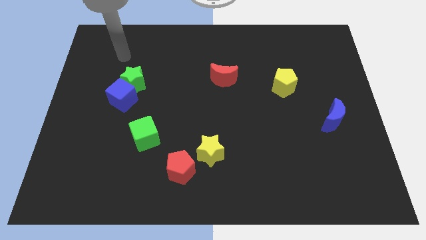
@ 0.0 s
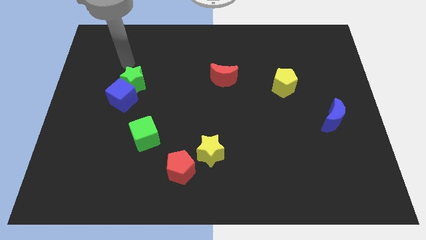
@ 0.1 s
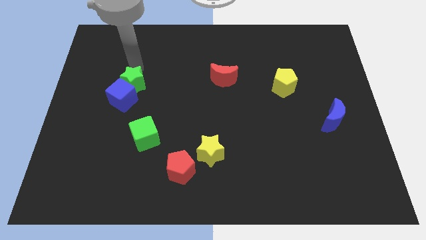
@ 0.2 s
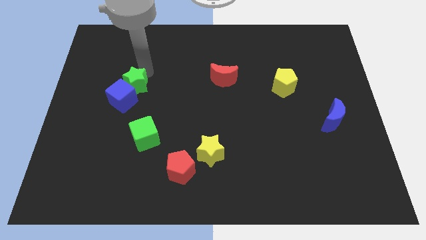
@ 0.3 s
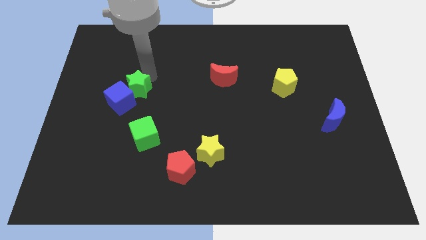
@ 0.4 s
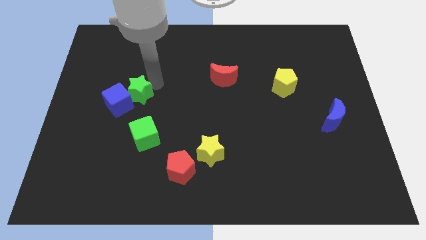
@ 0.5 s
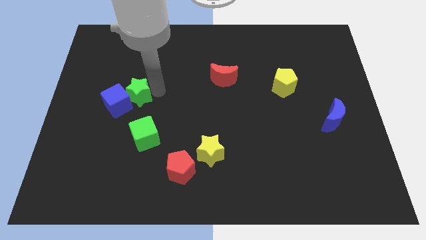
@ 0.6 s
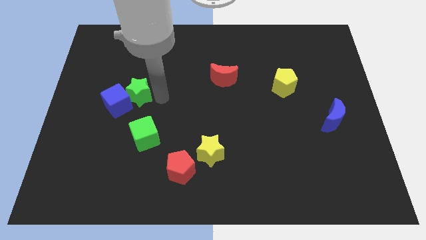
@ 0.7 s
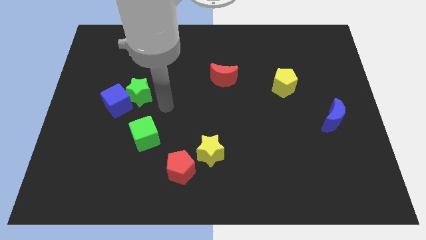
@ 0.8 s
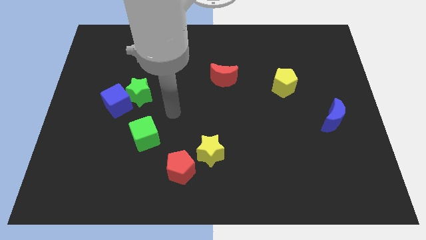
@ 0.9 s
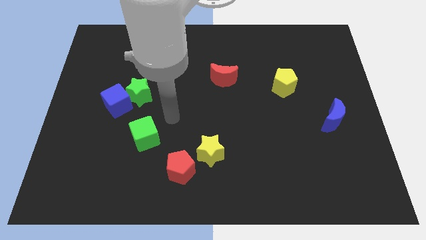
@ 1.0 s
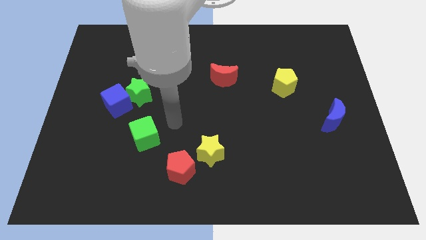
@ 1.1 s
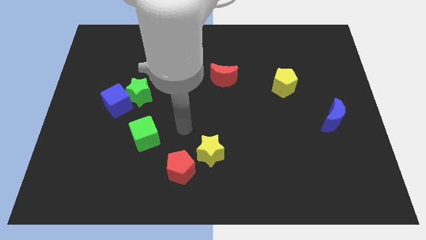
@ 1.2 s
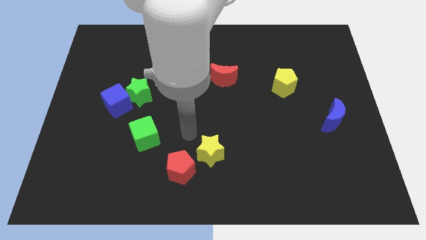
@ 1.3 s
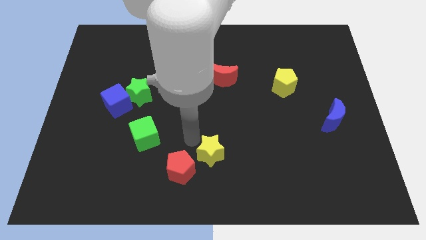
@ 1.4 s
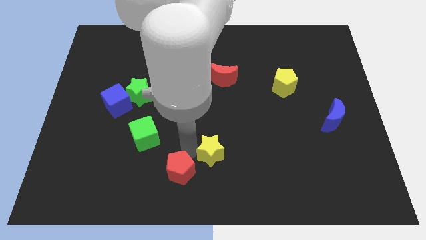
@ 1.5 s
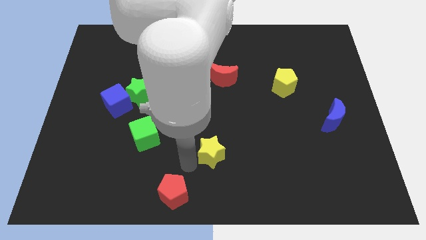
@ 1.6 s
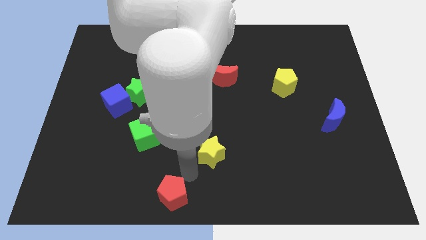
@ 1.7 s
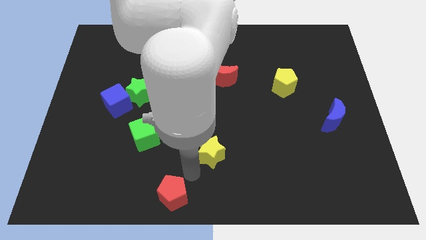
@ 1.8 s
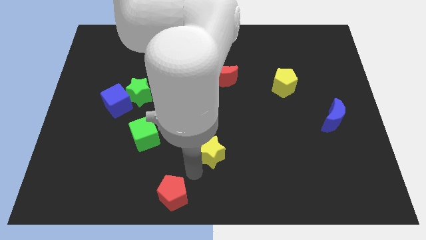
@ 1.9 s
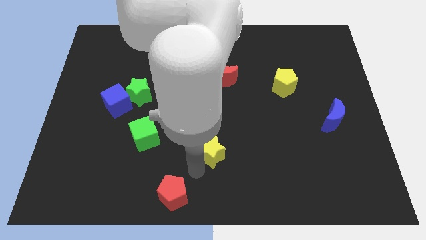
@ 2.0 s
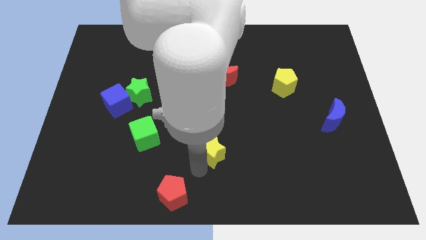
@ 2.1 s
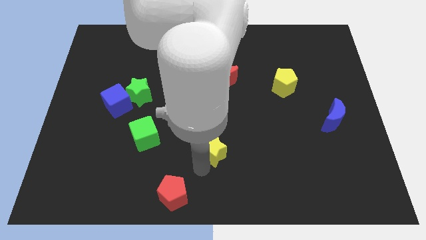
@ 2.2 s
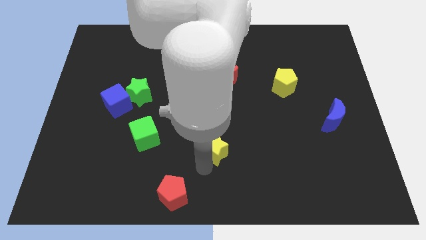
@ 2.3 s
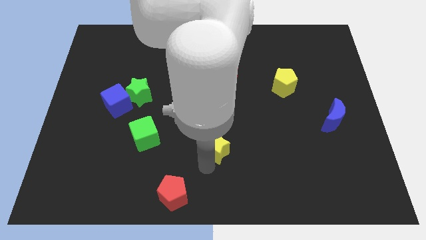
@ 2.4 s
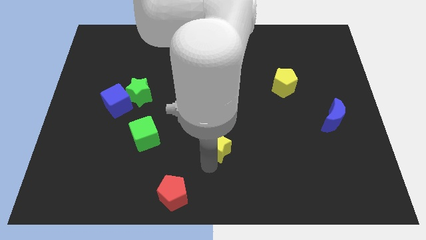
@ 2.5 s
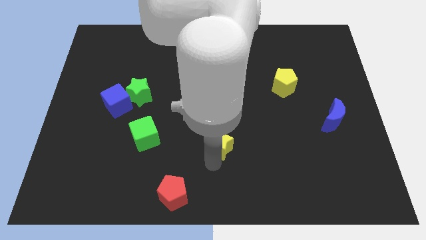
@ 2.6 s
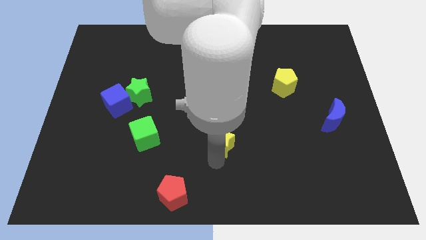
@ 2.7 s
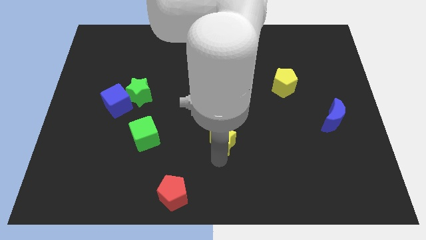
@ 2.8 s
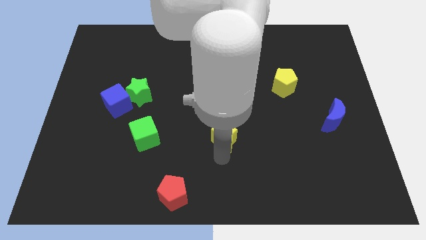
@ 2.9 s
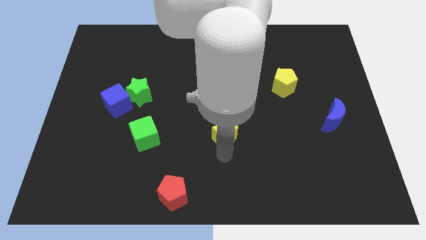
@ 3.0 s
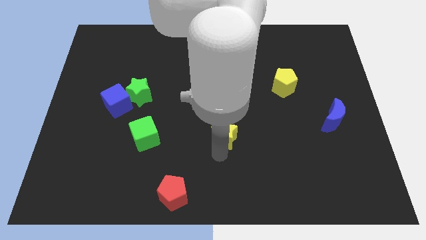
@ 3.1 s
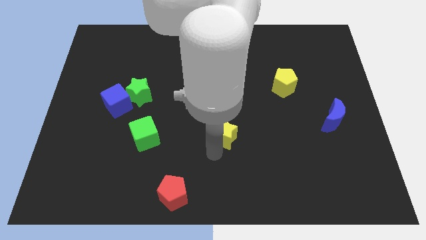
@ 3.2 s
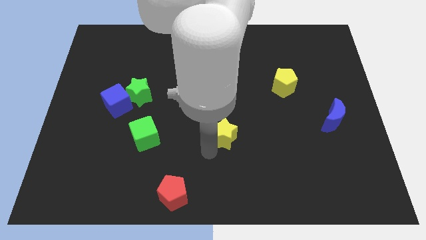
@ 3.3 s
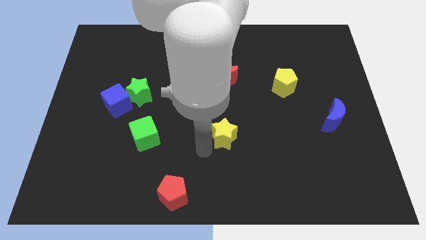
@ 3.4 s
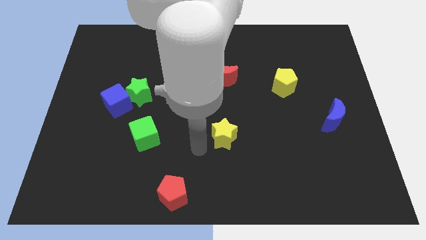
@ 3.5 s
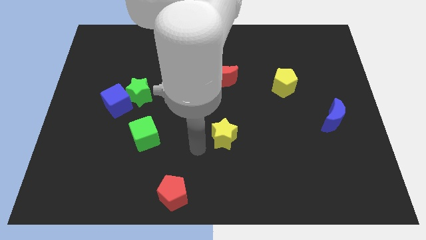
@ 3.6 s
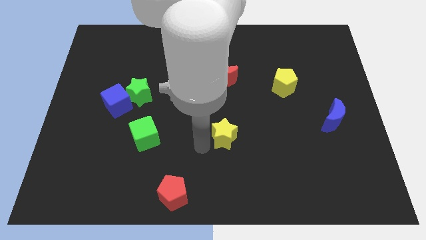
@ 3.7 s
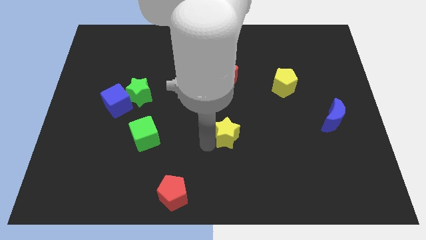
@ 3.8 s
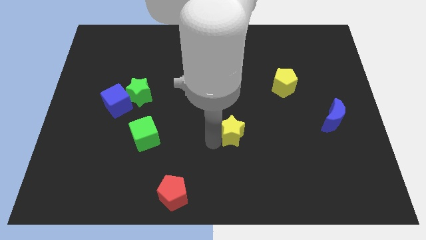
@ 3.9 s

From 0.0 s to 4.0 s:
slightly slide the yellow star up and to the right

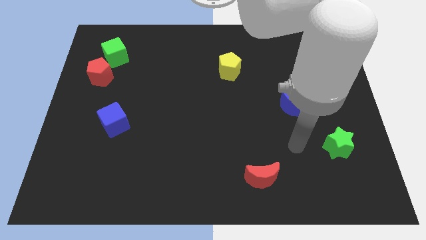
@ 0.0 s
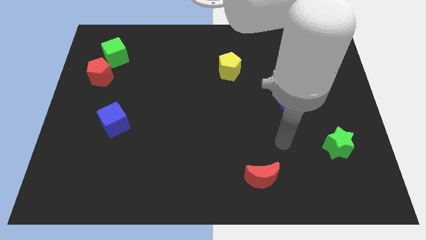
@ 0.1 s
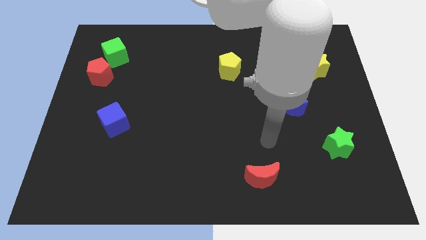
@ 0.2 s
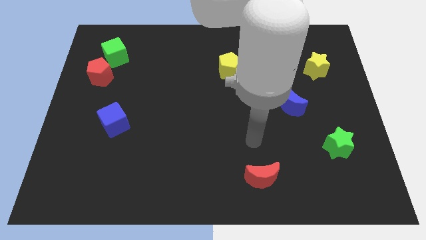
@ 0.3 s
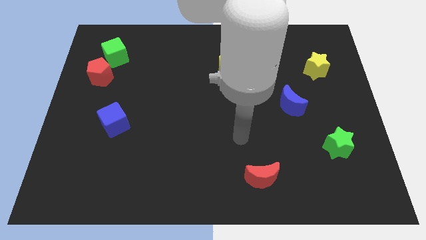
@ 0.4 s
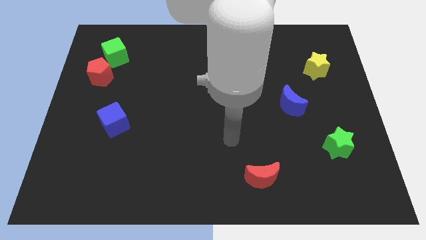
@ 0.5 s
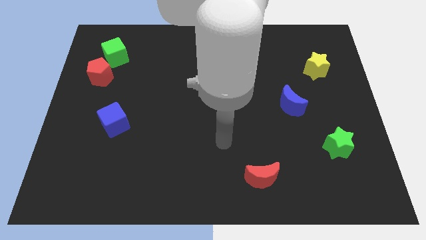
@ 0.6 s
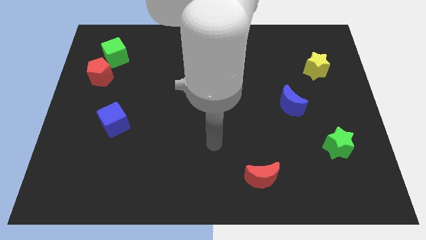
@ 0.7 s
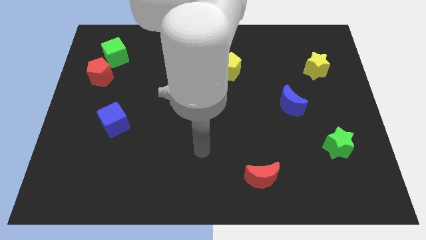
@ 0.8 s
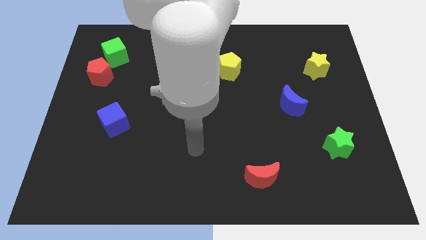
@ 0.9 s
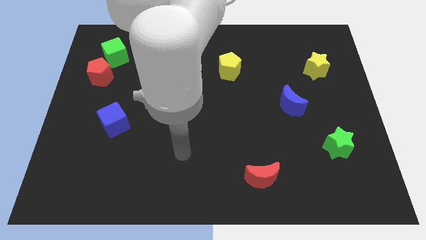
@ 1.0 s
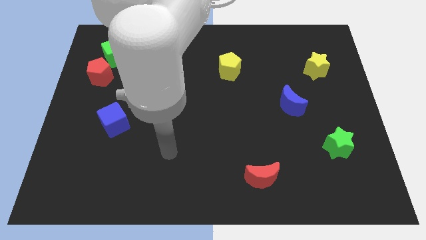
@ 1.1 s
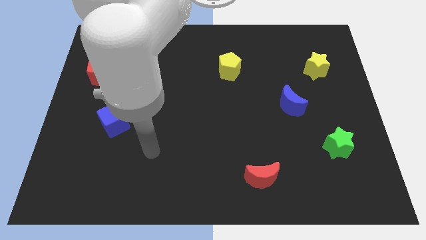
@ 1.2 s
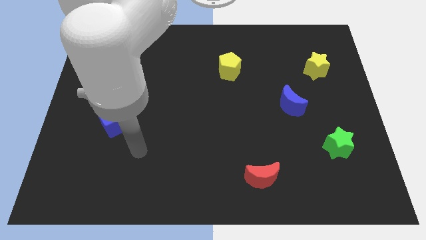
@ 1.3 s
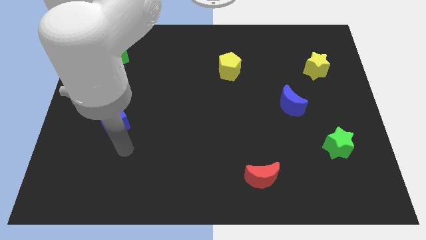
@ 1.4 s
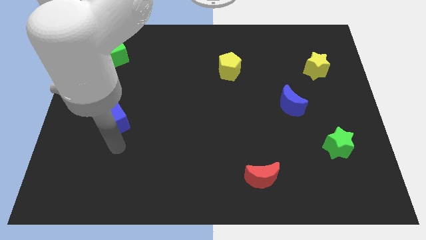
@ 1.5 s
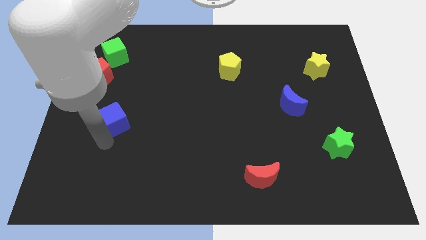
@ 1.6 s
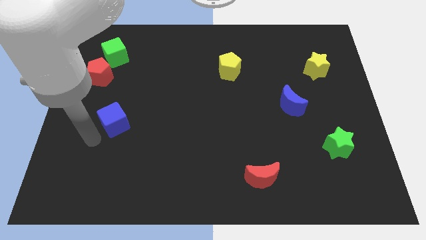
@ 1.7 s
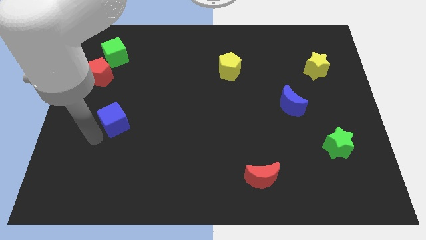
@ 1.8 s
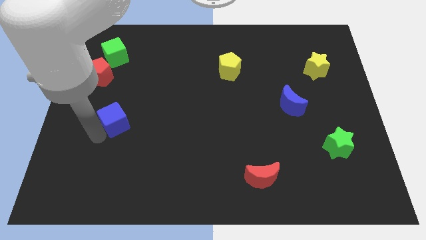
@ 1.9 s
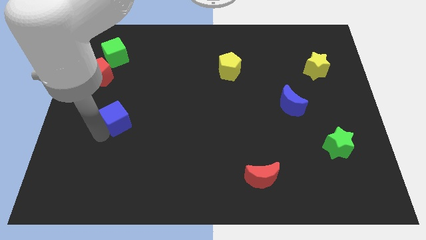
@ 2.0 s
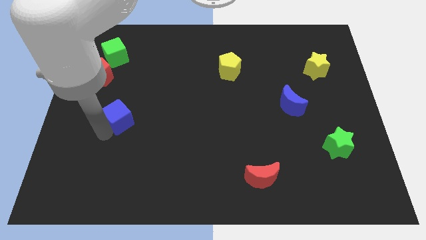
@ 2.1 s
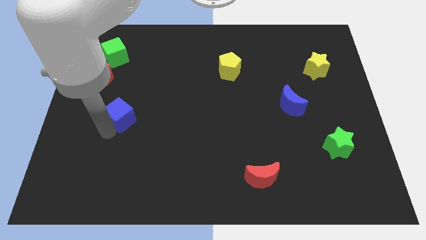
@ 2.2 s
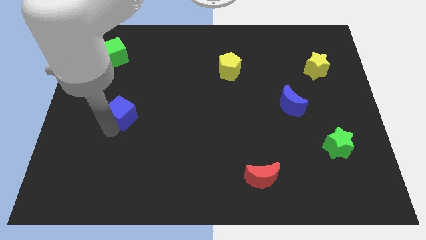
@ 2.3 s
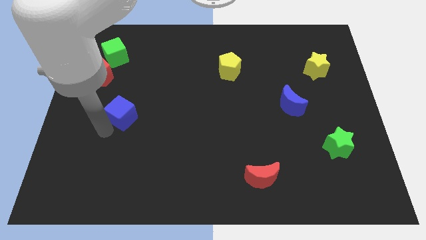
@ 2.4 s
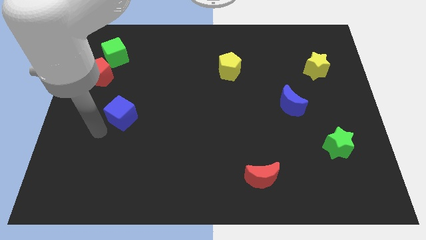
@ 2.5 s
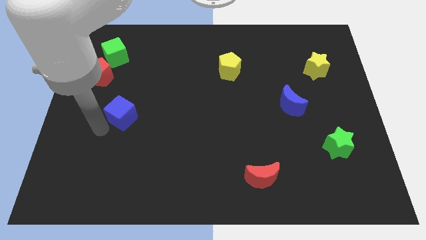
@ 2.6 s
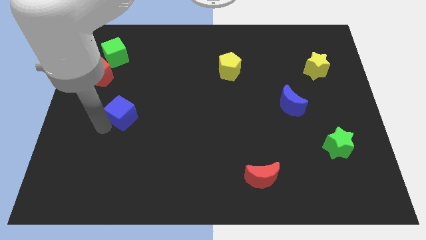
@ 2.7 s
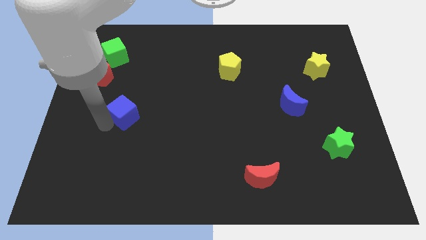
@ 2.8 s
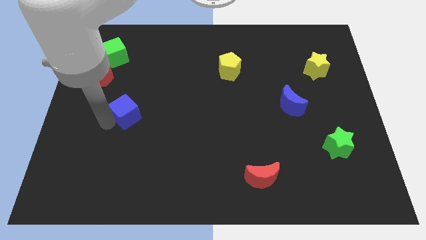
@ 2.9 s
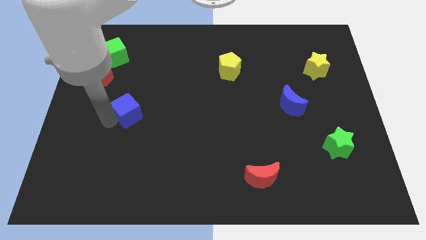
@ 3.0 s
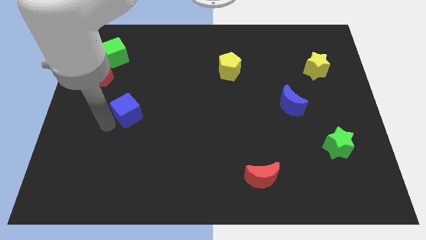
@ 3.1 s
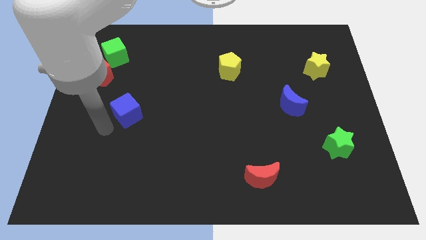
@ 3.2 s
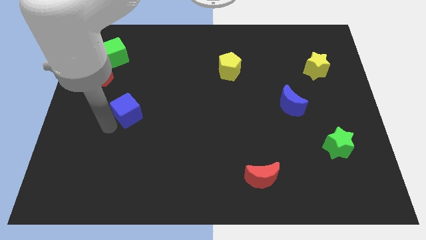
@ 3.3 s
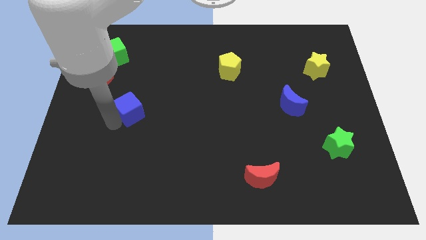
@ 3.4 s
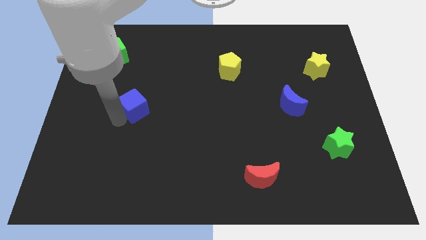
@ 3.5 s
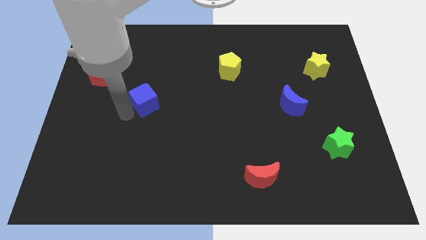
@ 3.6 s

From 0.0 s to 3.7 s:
slide the blue cube up and right diagonally a bit

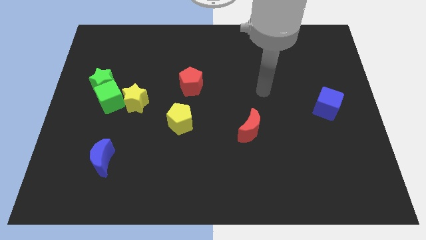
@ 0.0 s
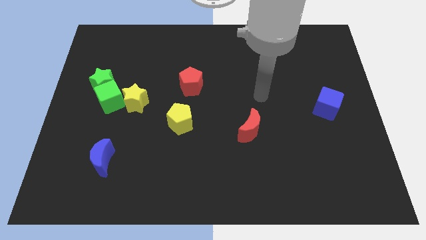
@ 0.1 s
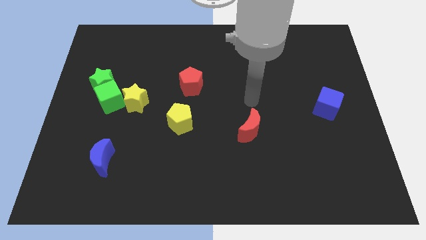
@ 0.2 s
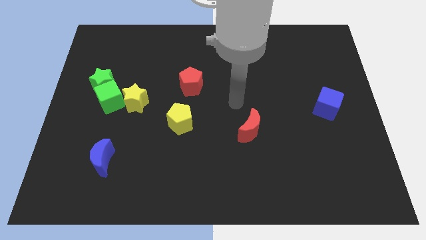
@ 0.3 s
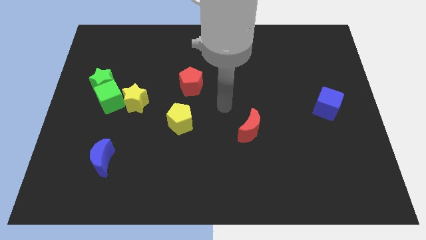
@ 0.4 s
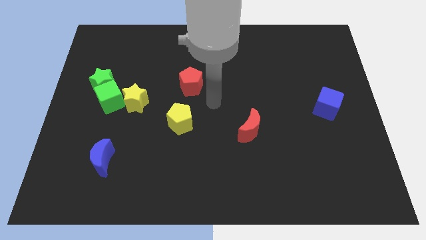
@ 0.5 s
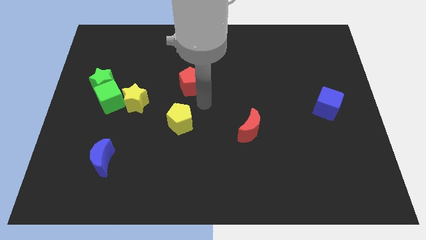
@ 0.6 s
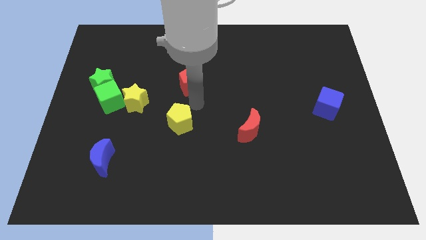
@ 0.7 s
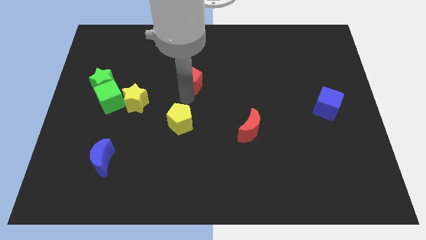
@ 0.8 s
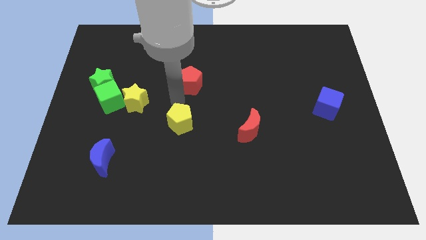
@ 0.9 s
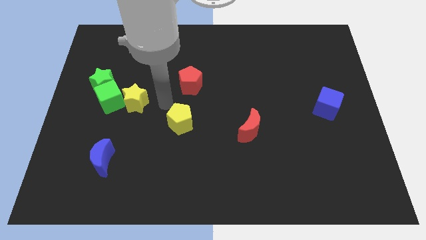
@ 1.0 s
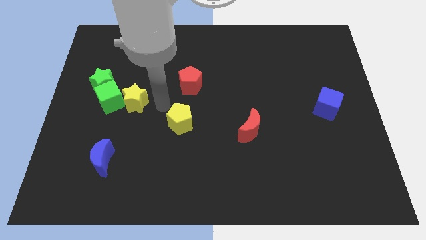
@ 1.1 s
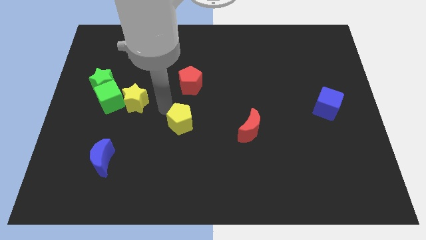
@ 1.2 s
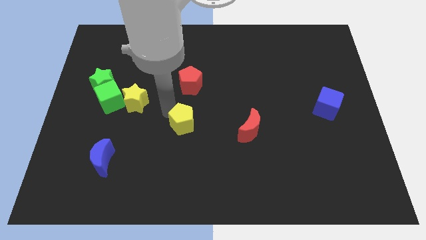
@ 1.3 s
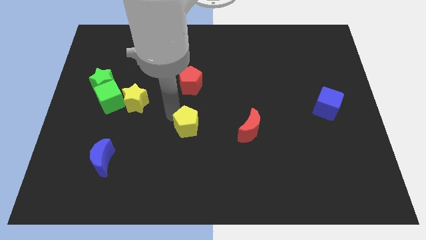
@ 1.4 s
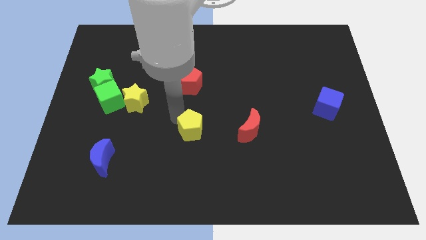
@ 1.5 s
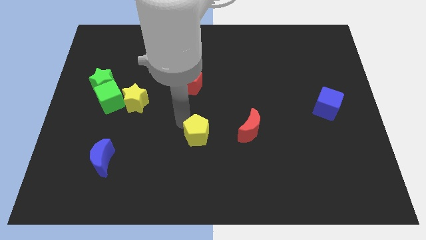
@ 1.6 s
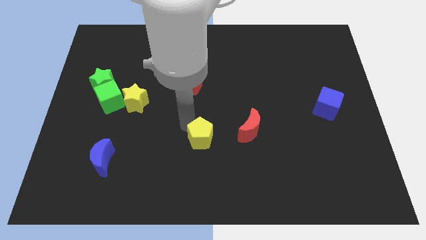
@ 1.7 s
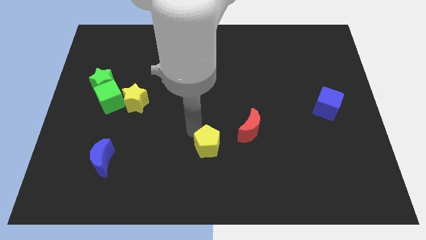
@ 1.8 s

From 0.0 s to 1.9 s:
push the yellow pentagon a little bit downwards and then right
